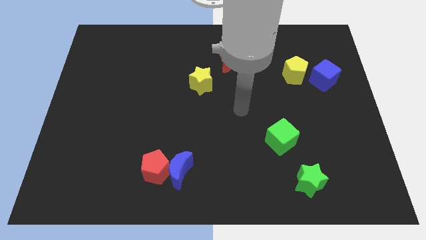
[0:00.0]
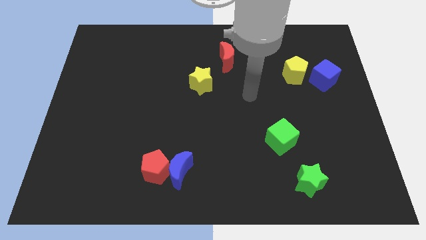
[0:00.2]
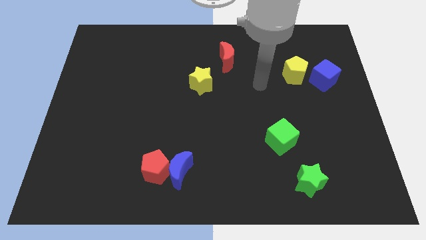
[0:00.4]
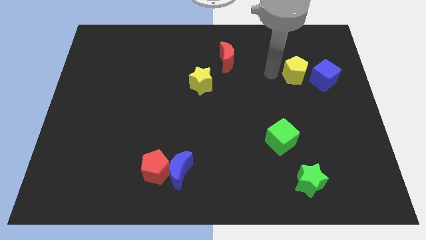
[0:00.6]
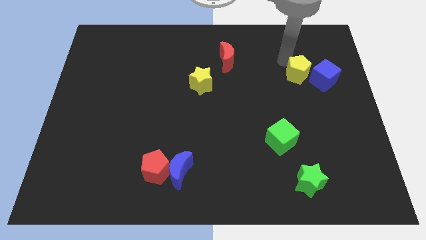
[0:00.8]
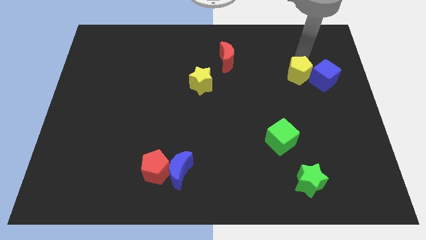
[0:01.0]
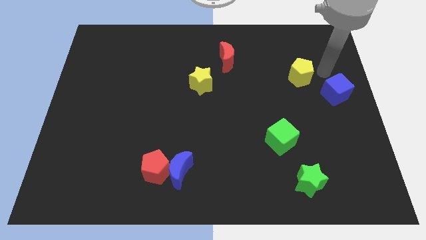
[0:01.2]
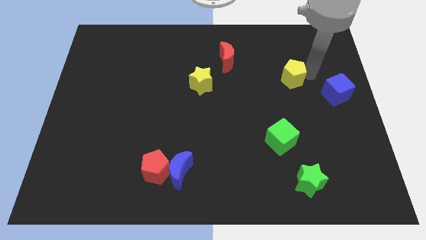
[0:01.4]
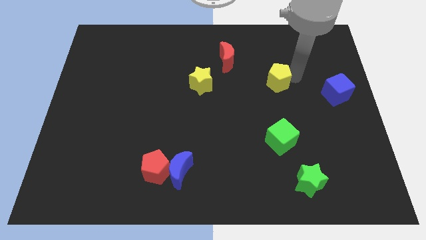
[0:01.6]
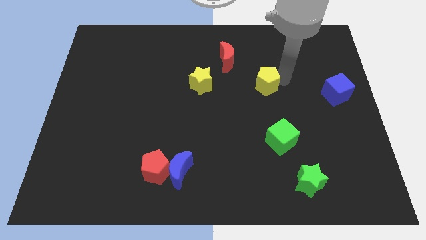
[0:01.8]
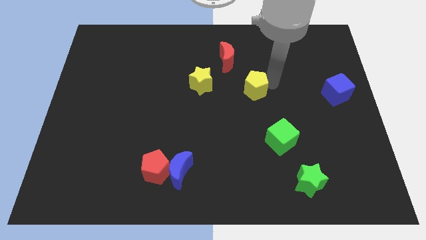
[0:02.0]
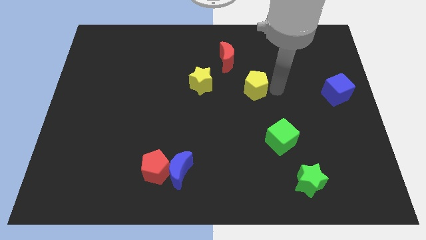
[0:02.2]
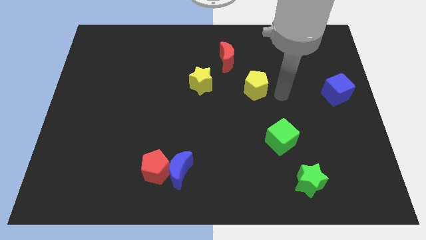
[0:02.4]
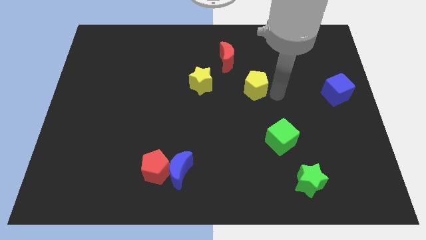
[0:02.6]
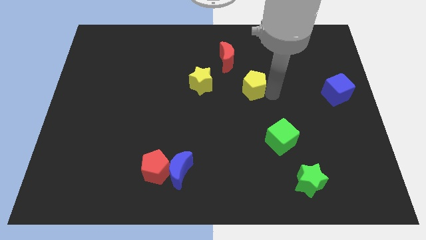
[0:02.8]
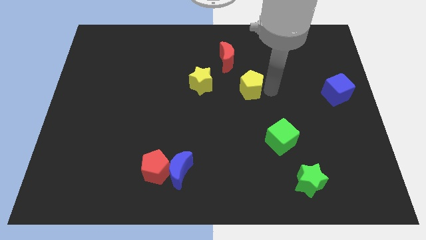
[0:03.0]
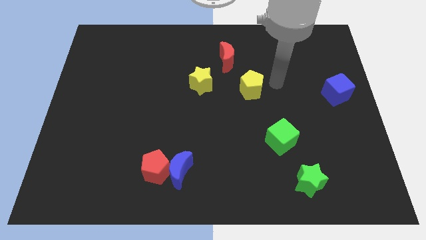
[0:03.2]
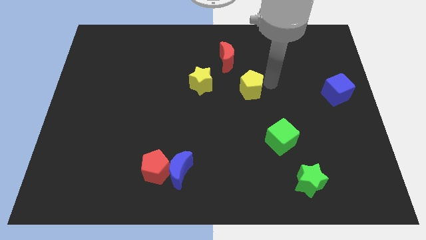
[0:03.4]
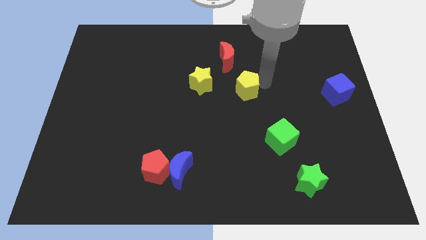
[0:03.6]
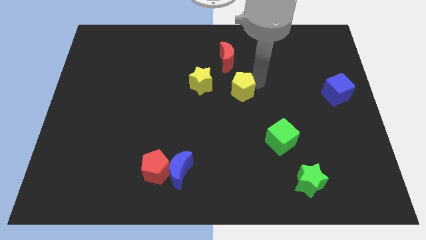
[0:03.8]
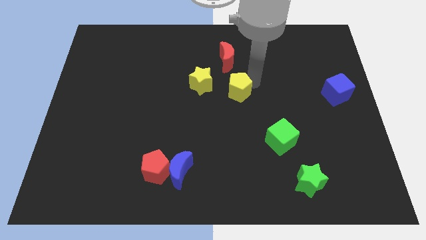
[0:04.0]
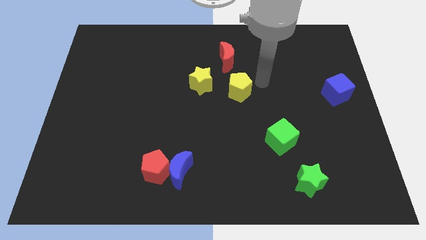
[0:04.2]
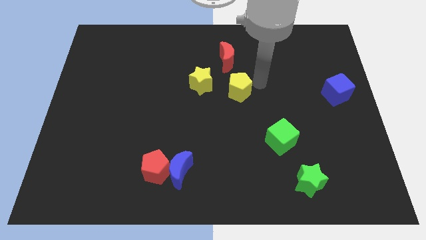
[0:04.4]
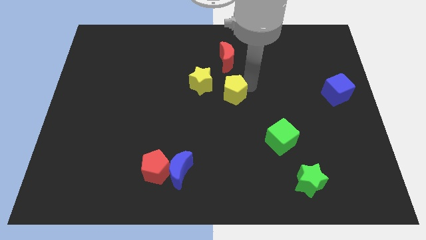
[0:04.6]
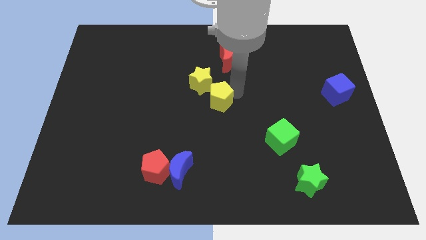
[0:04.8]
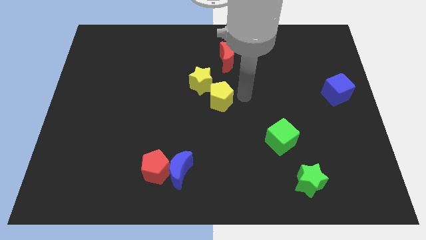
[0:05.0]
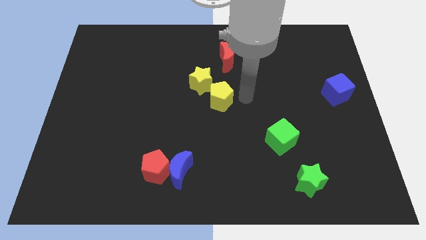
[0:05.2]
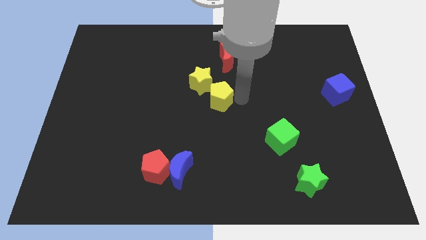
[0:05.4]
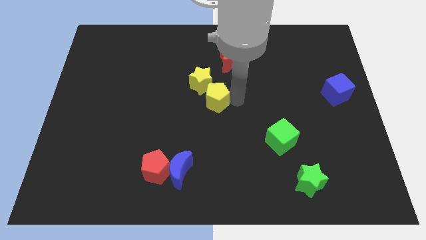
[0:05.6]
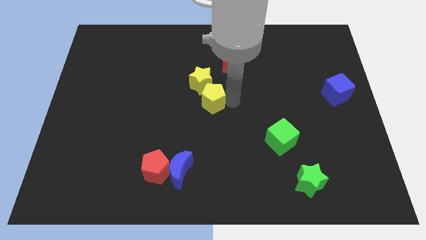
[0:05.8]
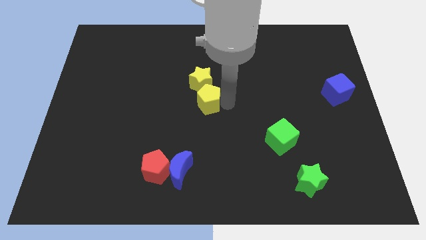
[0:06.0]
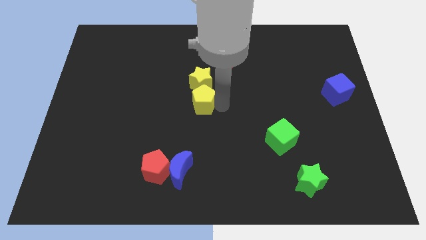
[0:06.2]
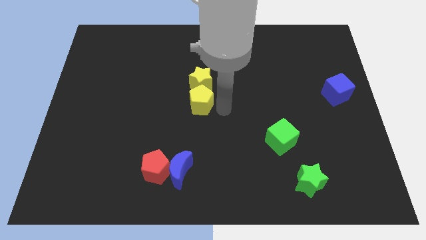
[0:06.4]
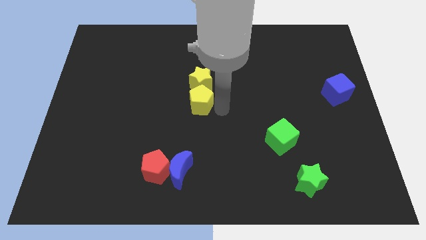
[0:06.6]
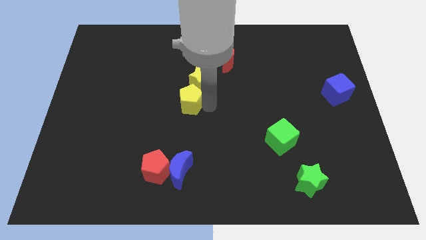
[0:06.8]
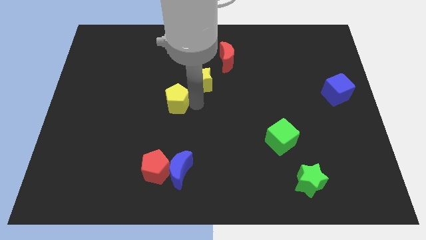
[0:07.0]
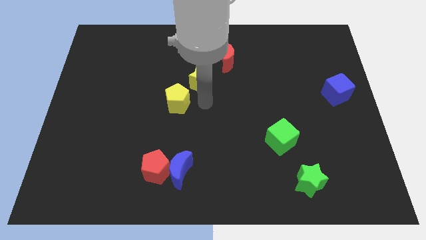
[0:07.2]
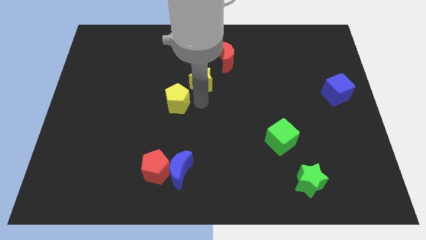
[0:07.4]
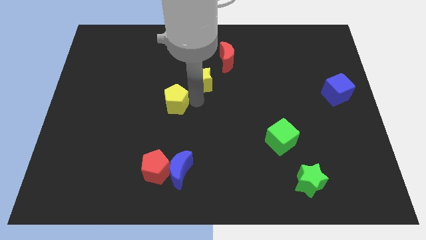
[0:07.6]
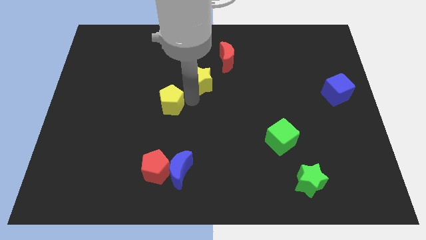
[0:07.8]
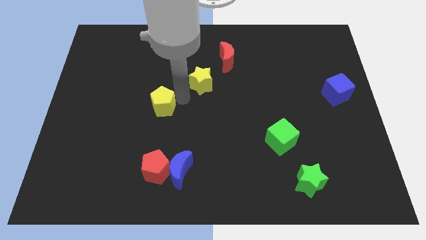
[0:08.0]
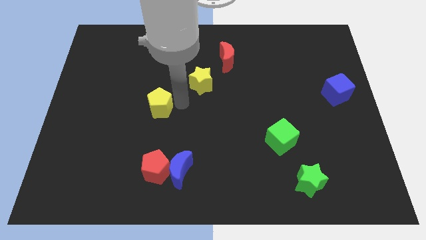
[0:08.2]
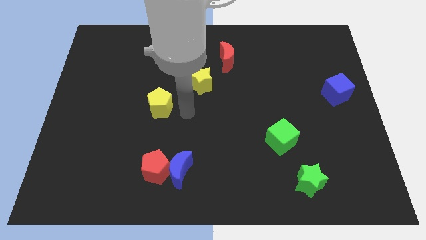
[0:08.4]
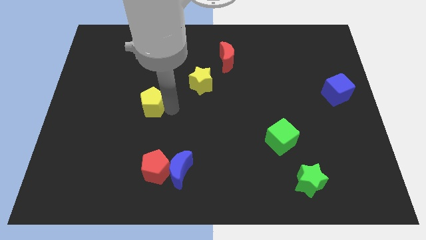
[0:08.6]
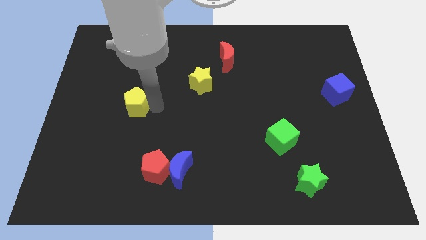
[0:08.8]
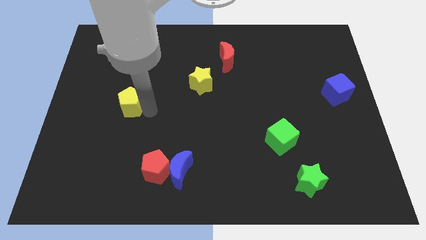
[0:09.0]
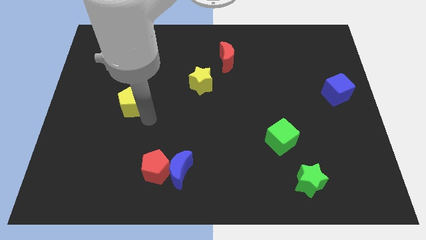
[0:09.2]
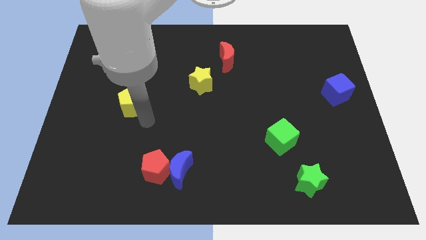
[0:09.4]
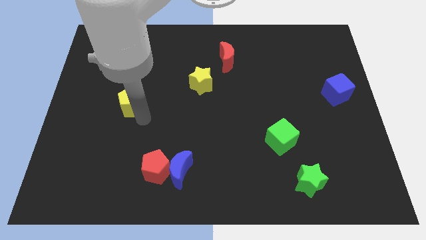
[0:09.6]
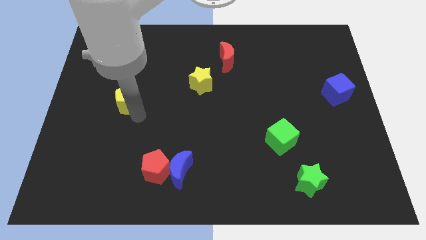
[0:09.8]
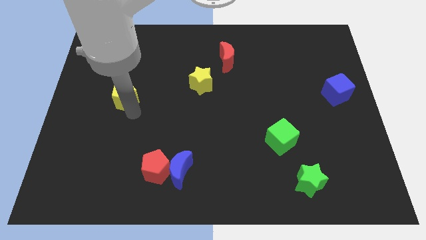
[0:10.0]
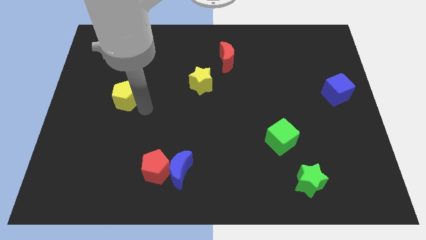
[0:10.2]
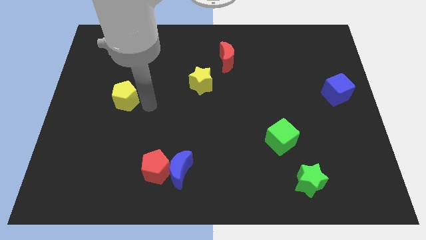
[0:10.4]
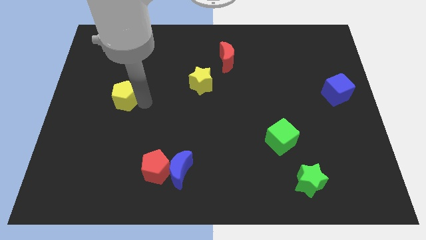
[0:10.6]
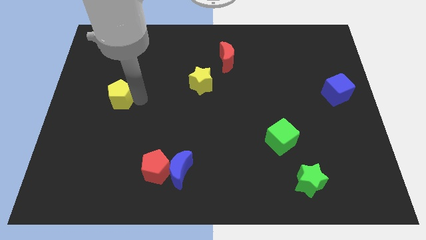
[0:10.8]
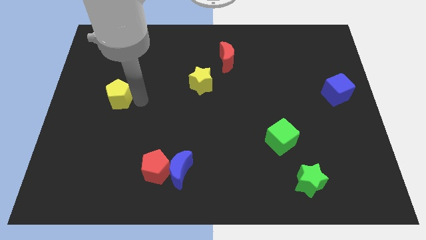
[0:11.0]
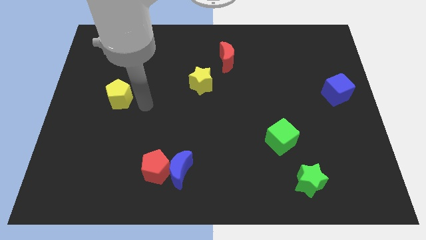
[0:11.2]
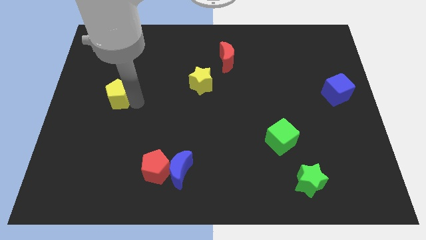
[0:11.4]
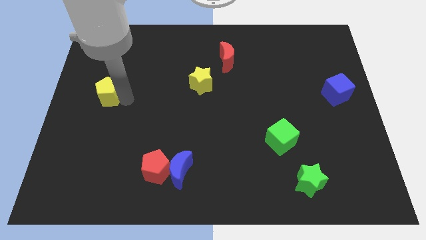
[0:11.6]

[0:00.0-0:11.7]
put the yellow pentagon to the left side
